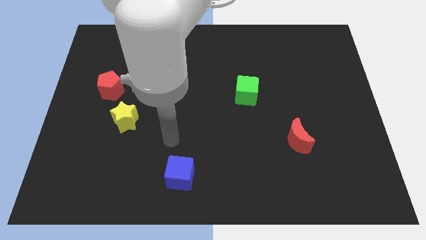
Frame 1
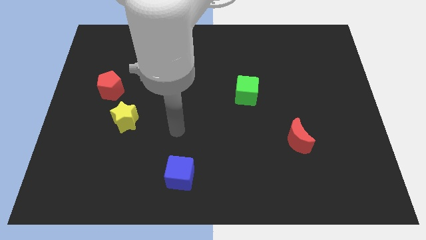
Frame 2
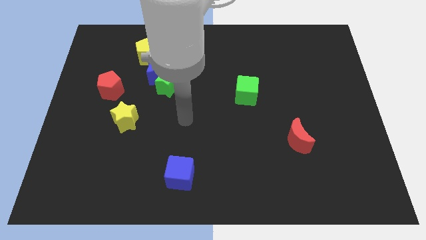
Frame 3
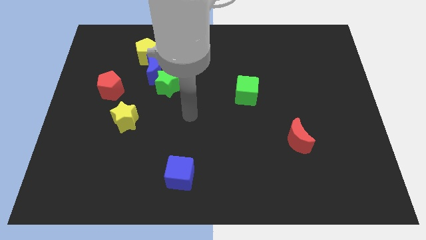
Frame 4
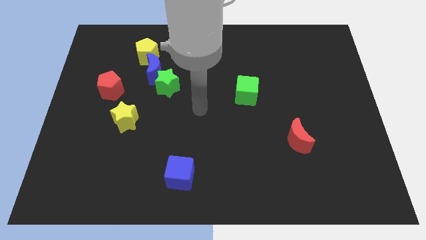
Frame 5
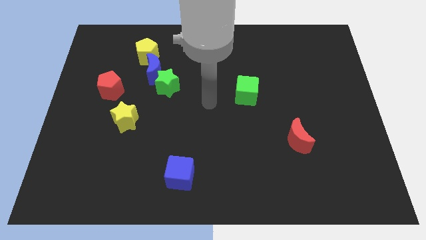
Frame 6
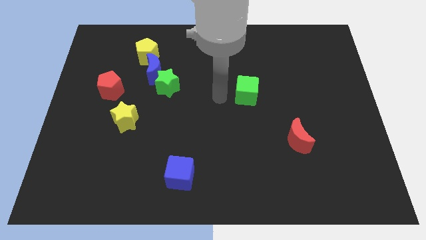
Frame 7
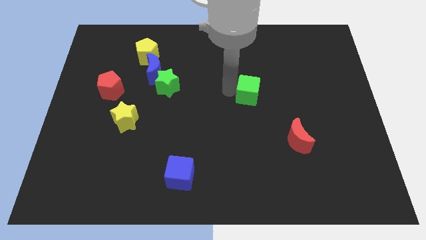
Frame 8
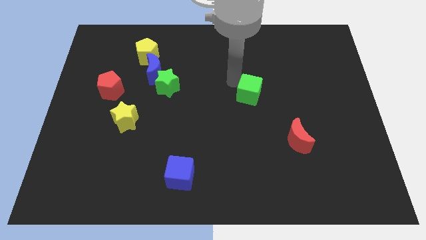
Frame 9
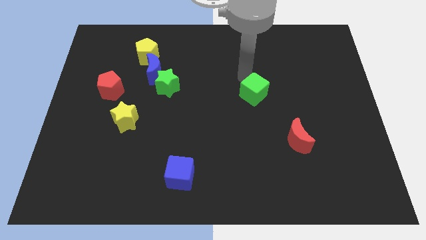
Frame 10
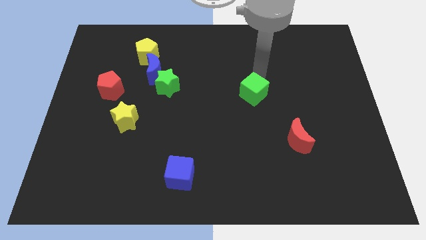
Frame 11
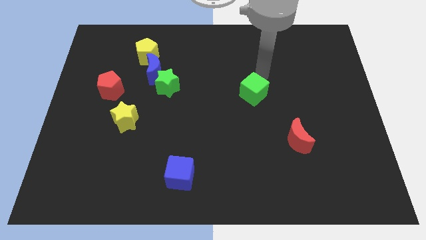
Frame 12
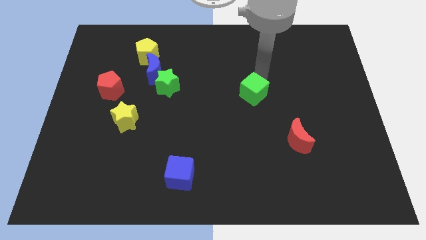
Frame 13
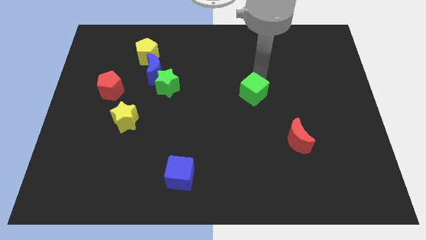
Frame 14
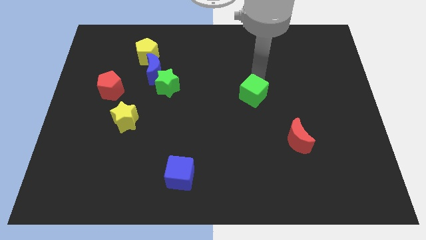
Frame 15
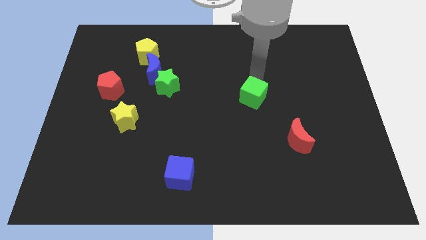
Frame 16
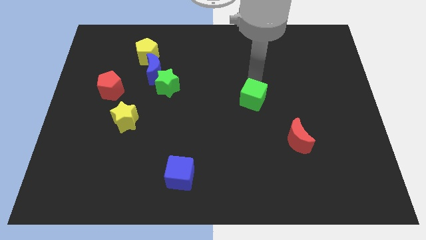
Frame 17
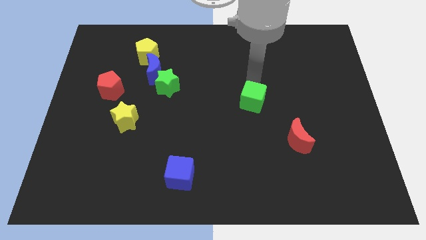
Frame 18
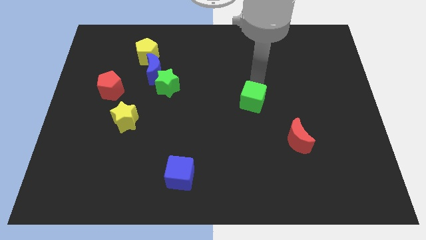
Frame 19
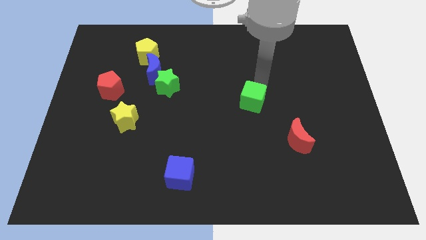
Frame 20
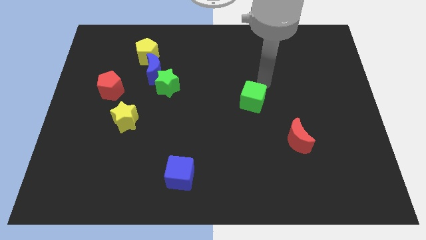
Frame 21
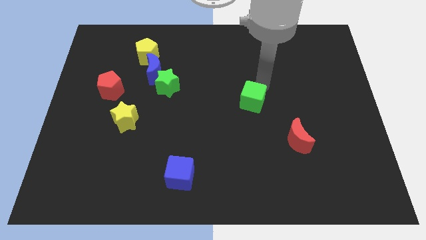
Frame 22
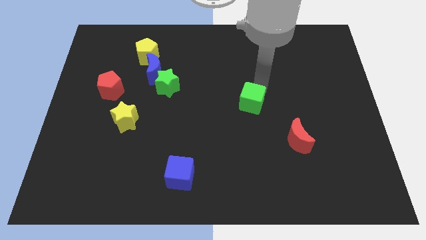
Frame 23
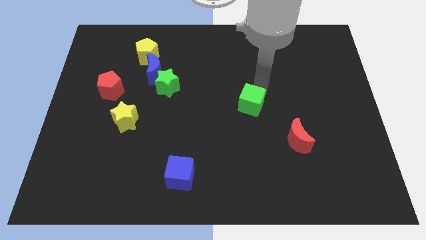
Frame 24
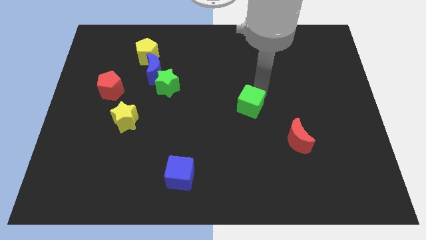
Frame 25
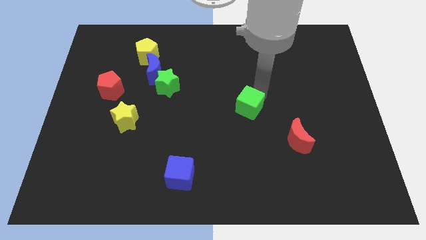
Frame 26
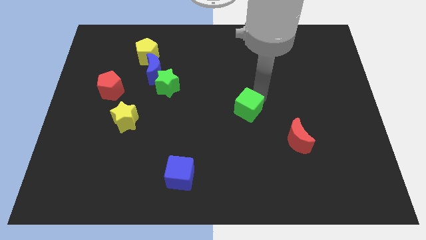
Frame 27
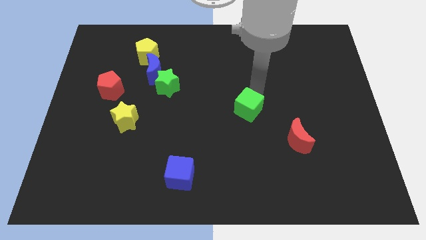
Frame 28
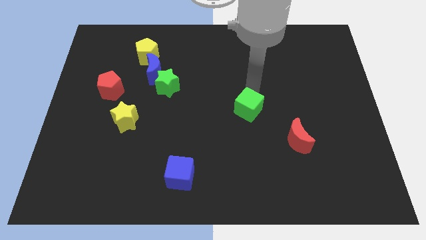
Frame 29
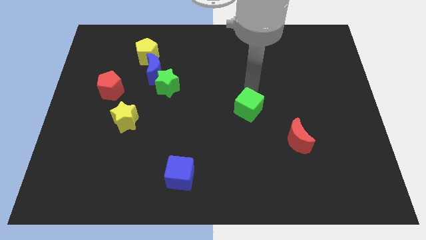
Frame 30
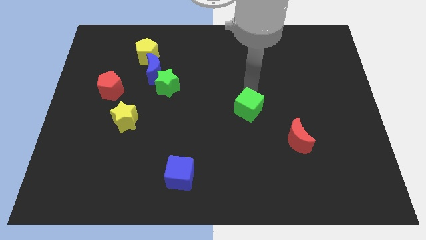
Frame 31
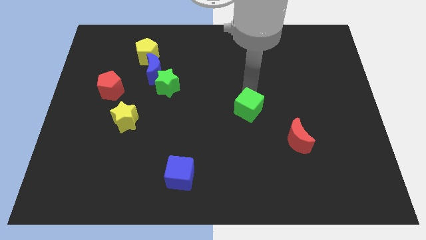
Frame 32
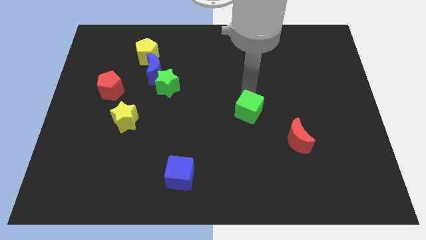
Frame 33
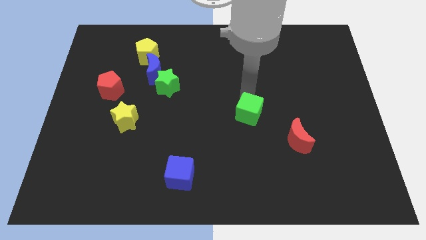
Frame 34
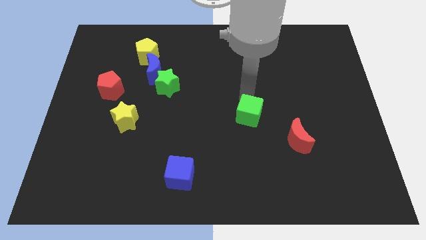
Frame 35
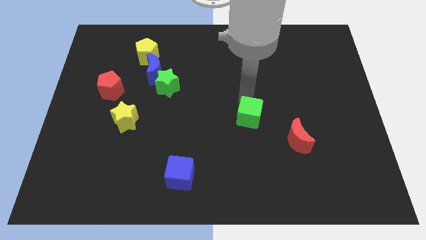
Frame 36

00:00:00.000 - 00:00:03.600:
slightly slide the green cube down

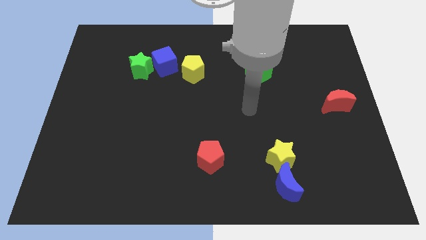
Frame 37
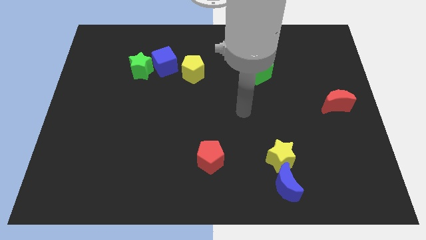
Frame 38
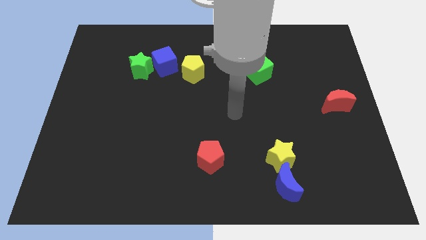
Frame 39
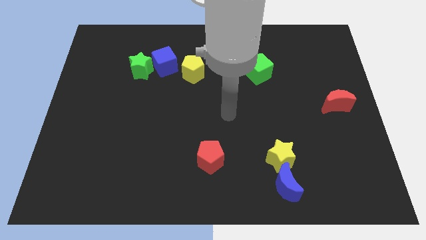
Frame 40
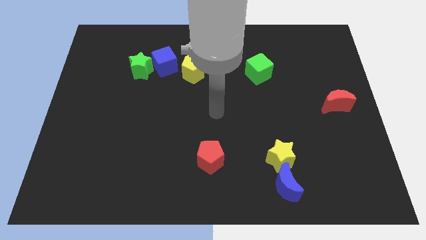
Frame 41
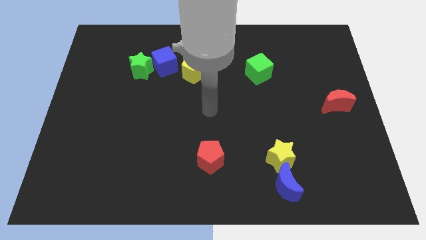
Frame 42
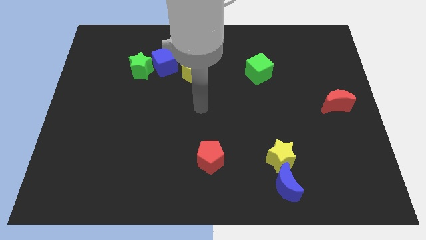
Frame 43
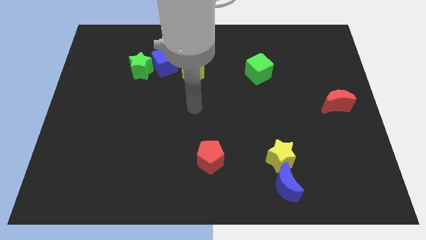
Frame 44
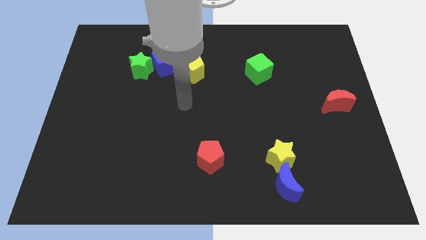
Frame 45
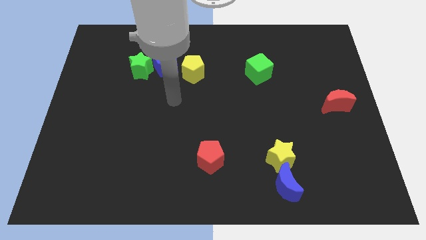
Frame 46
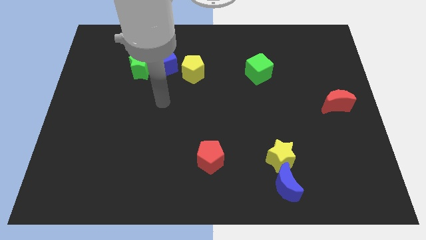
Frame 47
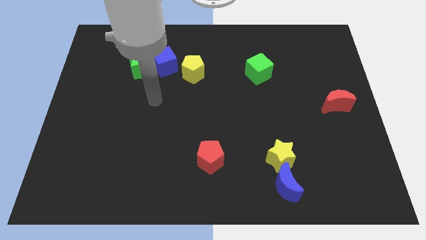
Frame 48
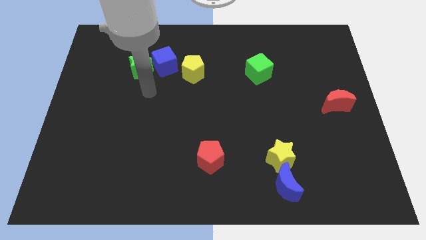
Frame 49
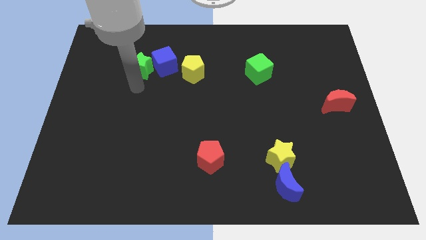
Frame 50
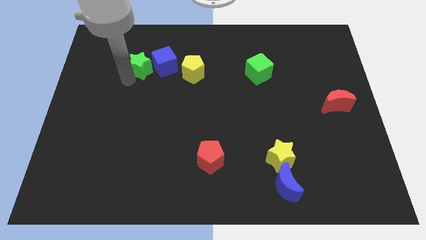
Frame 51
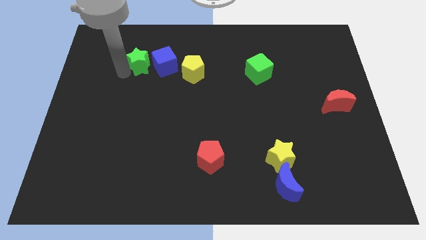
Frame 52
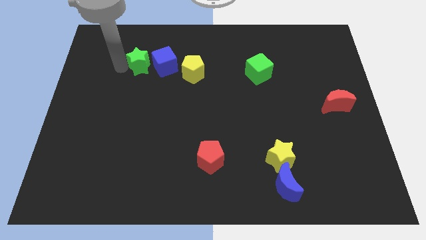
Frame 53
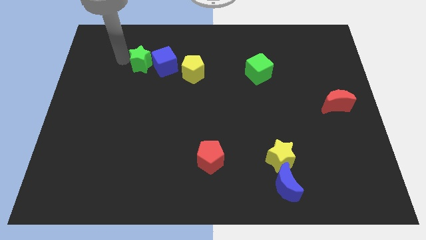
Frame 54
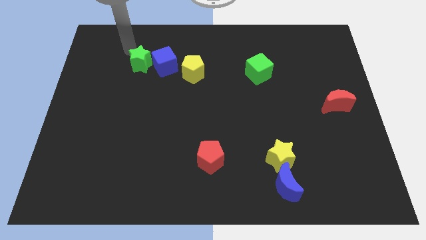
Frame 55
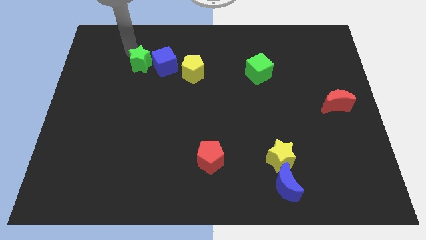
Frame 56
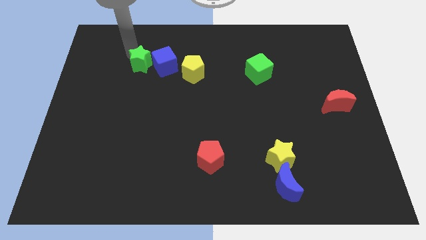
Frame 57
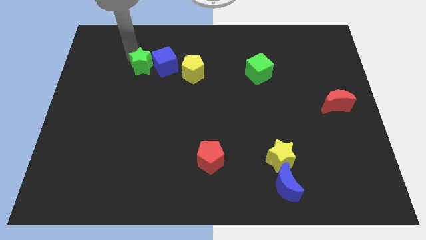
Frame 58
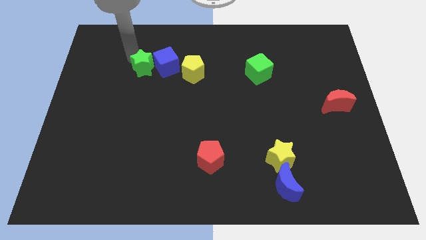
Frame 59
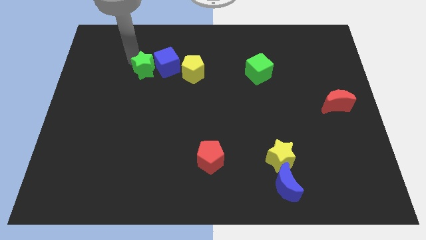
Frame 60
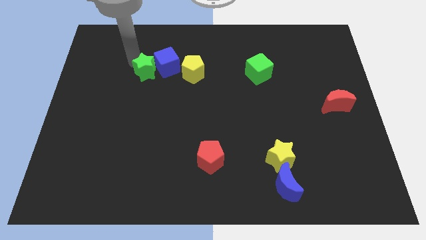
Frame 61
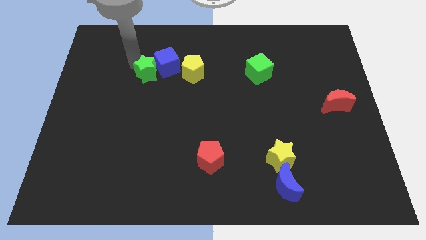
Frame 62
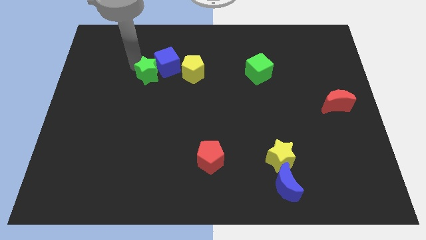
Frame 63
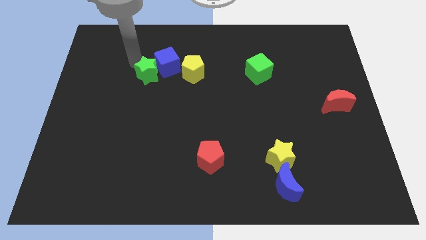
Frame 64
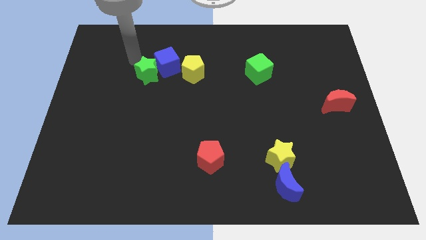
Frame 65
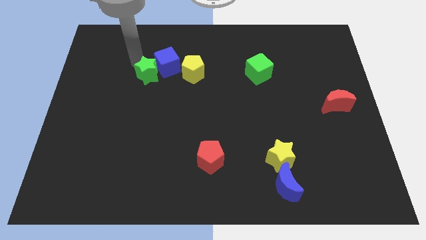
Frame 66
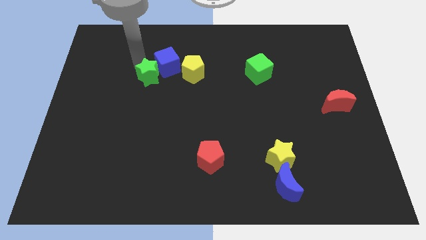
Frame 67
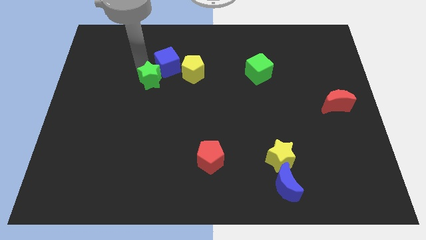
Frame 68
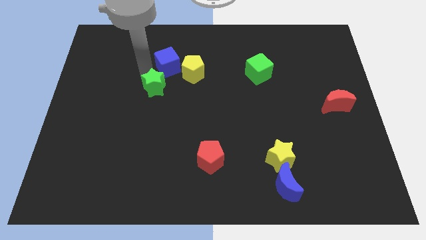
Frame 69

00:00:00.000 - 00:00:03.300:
move the green star slightly diagonally down and right

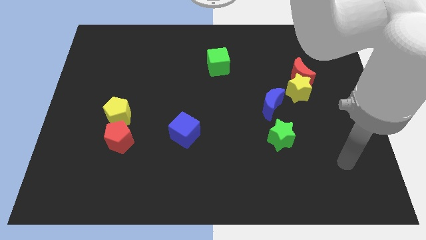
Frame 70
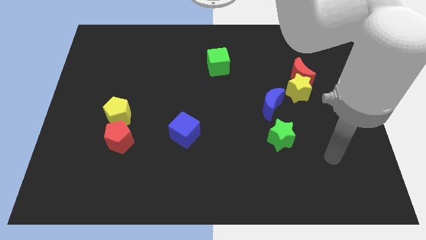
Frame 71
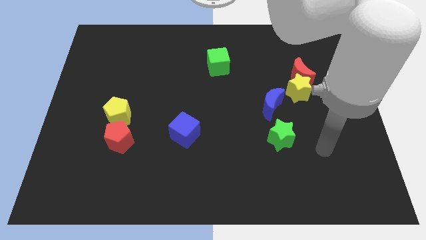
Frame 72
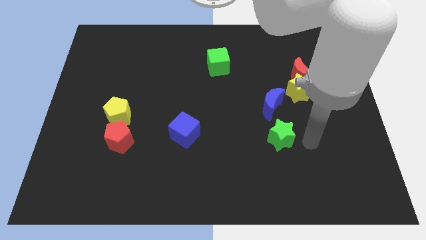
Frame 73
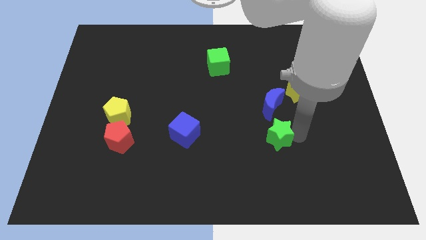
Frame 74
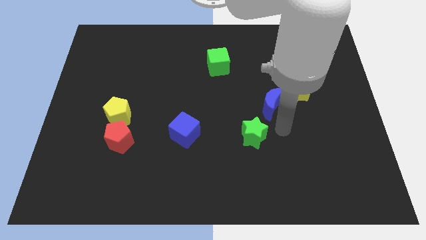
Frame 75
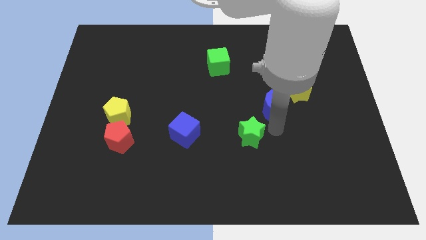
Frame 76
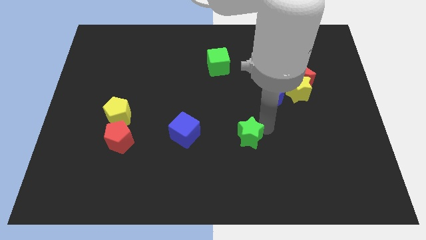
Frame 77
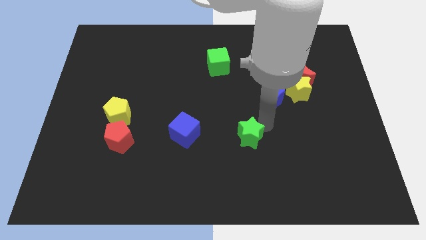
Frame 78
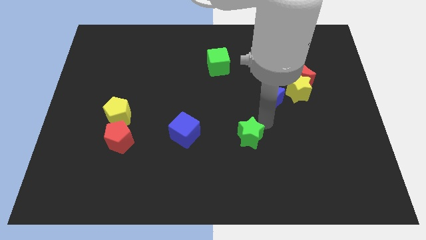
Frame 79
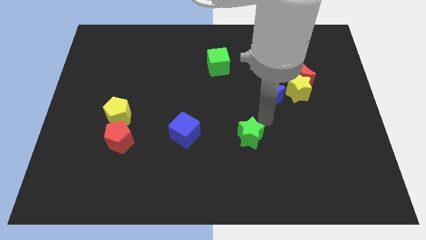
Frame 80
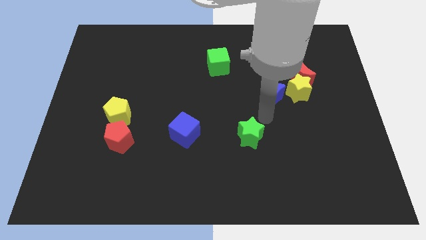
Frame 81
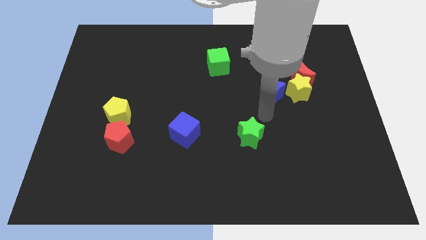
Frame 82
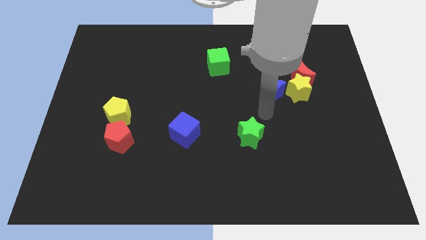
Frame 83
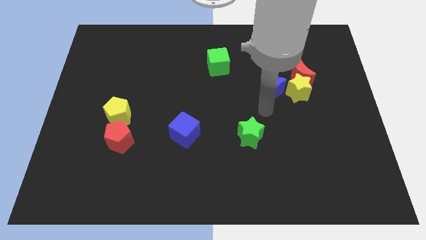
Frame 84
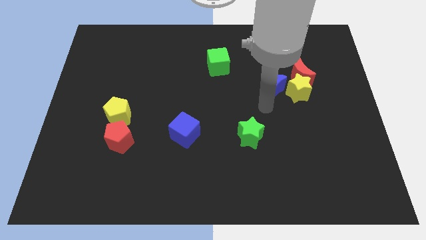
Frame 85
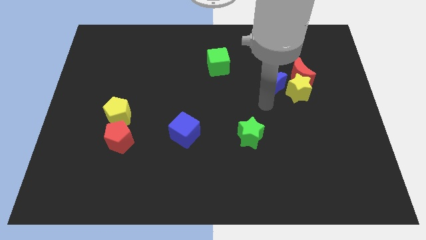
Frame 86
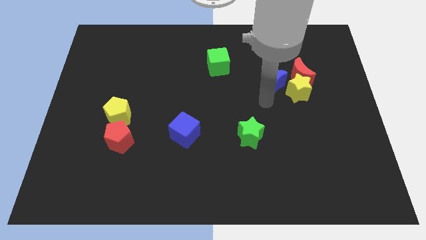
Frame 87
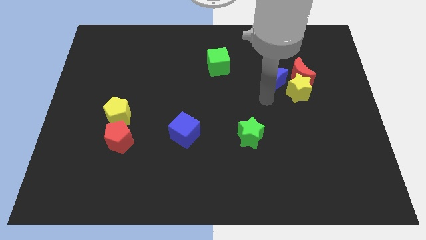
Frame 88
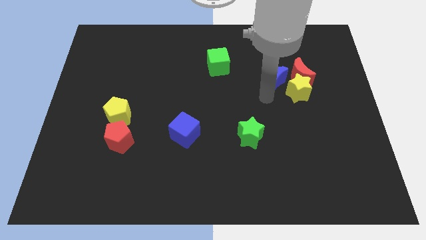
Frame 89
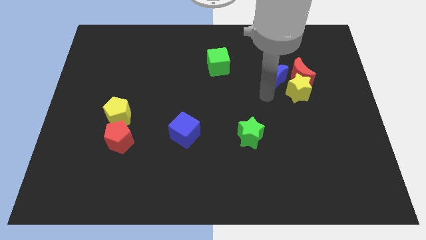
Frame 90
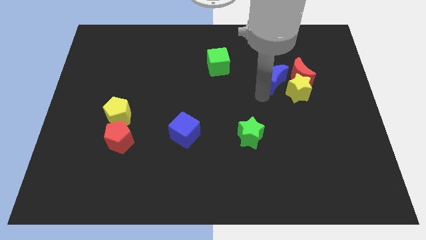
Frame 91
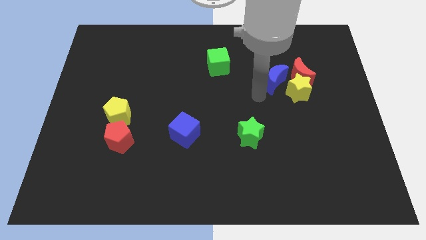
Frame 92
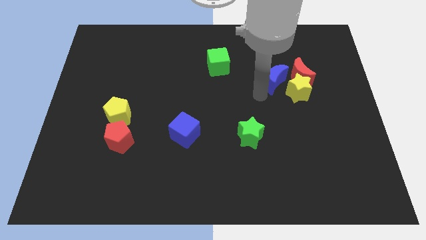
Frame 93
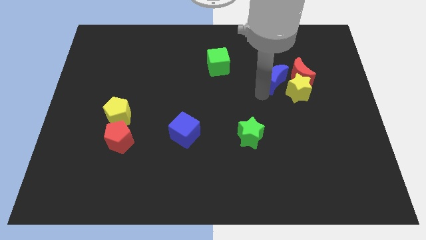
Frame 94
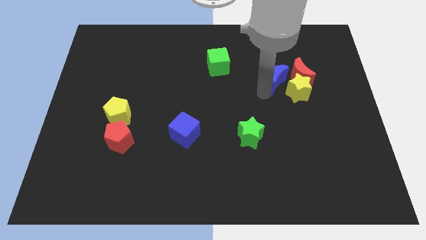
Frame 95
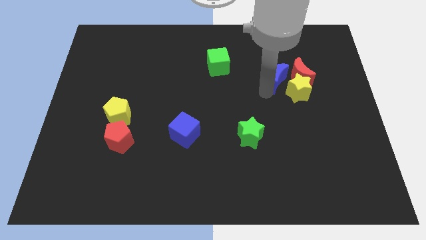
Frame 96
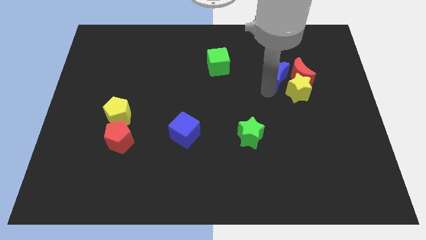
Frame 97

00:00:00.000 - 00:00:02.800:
slide the blue moon a little up and then to the right
